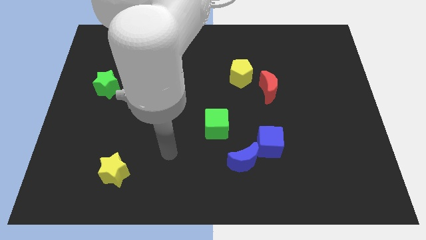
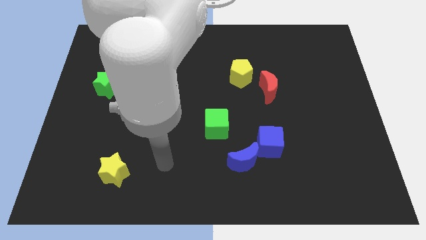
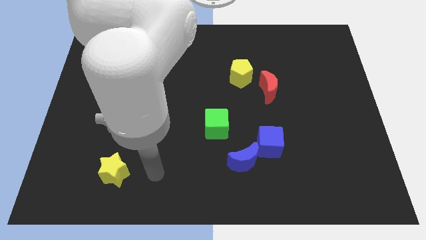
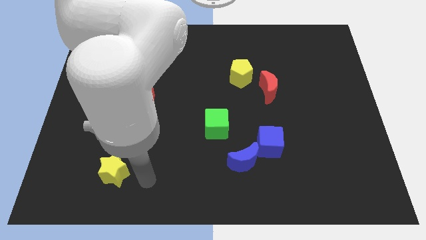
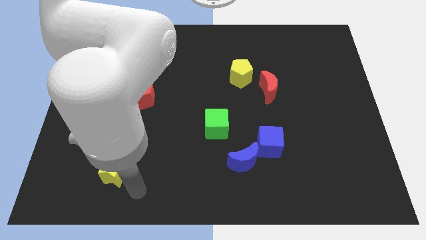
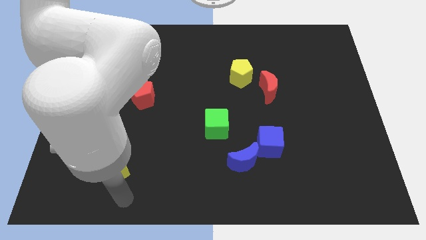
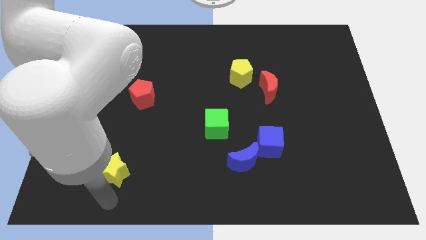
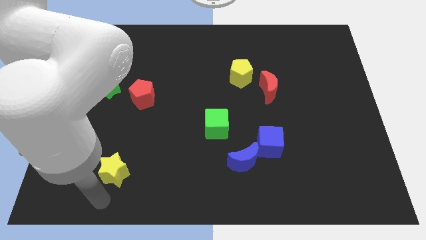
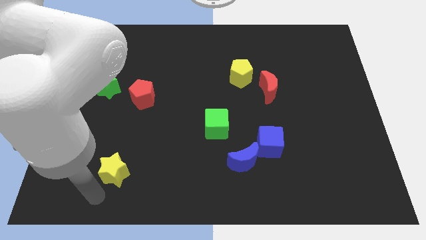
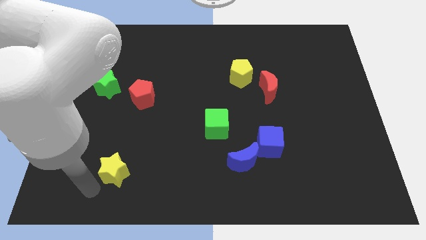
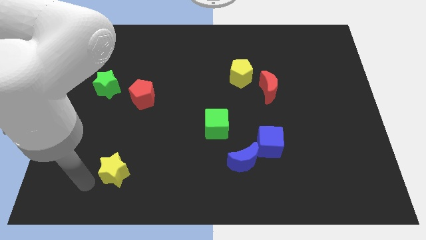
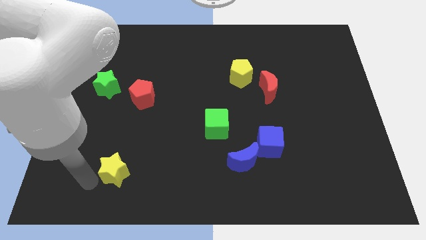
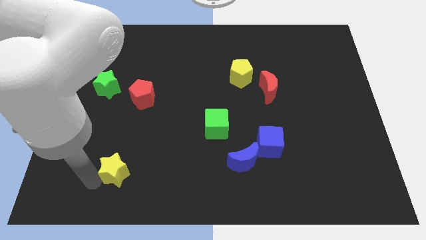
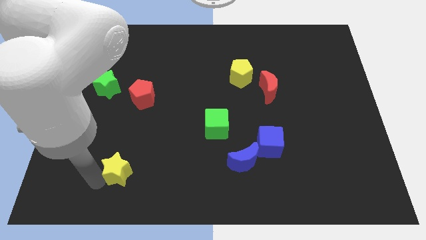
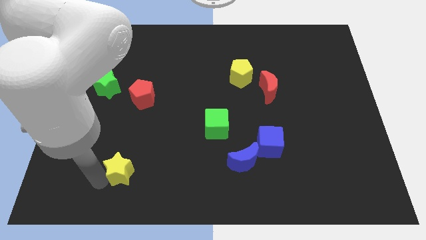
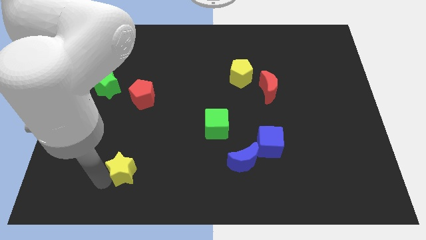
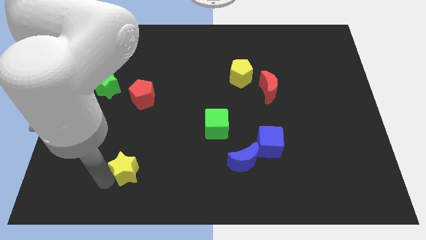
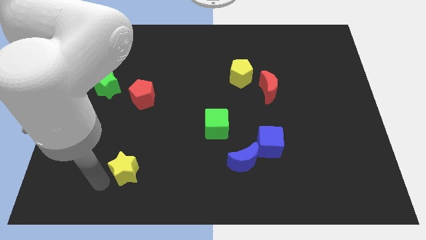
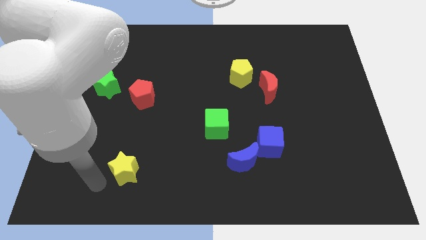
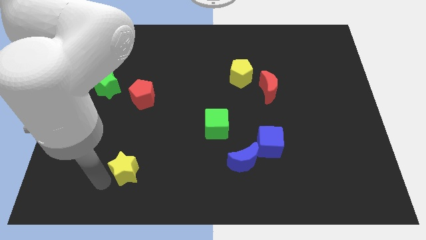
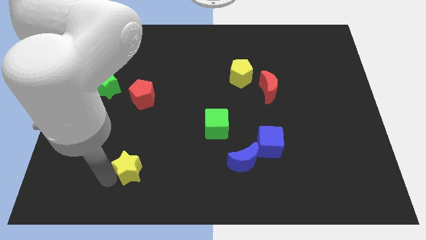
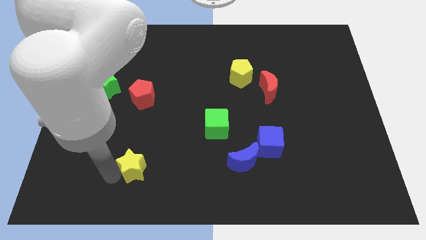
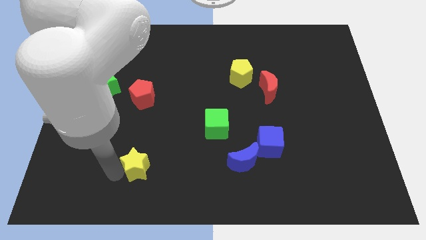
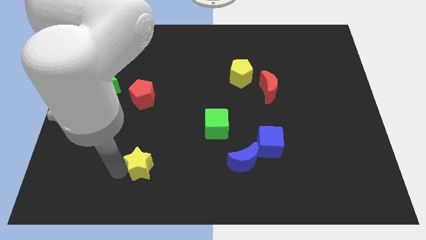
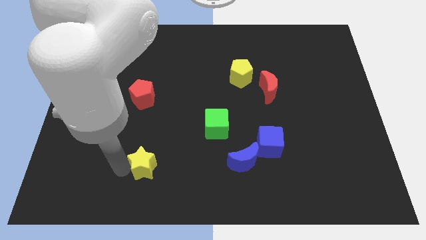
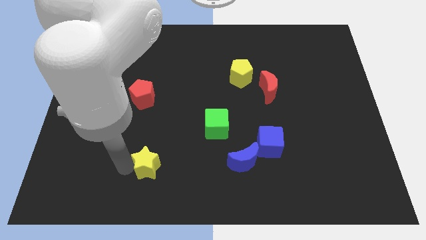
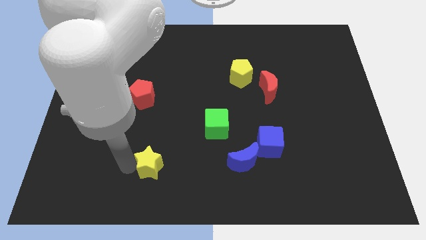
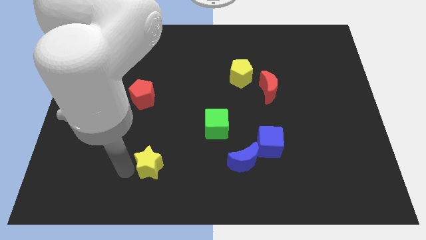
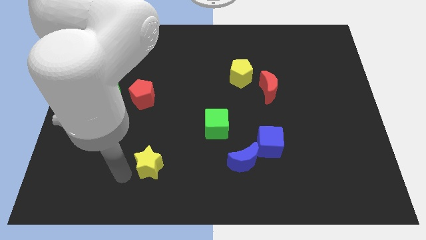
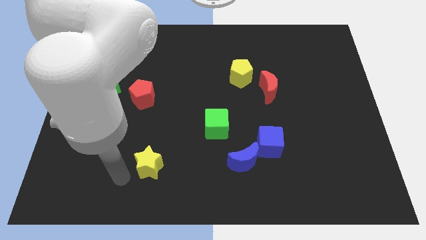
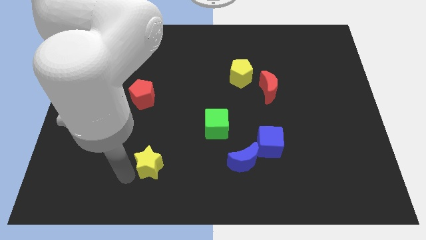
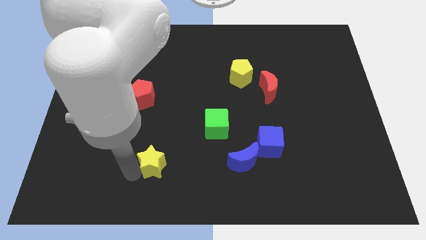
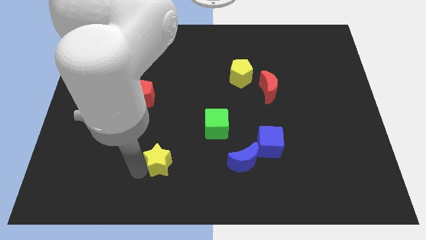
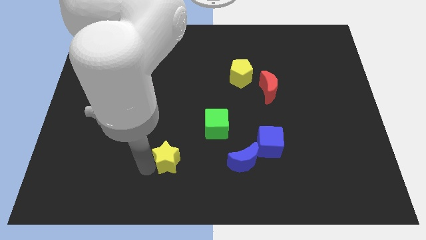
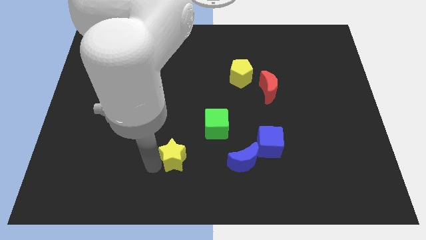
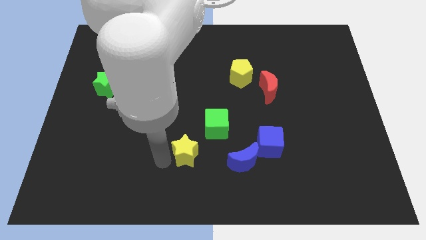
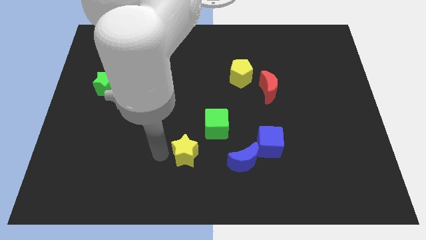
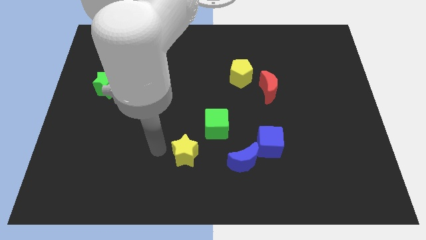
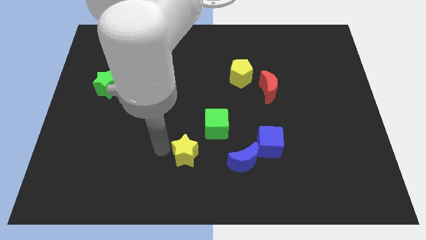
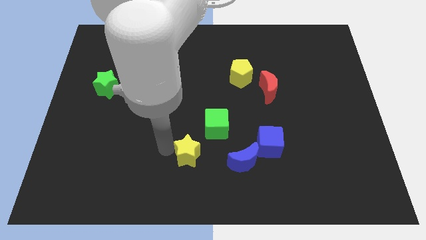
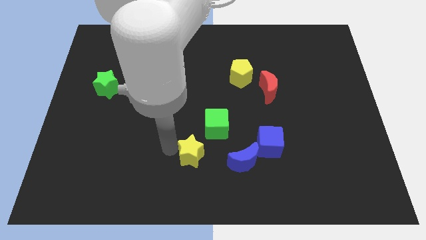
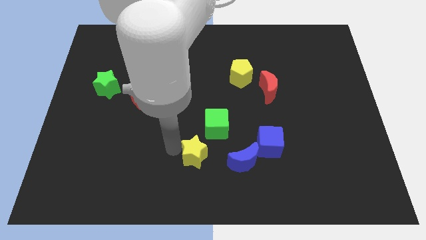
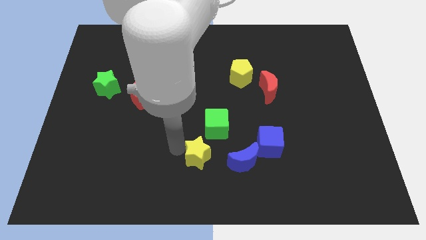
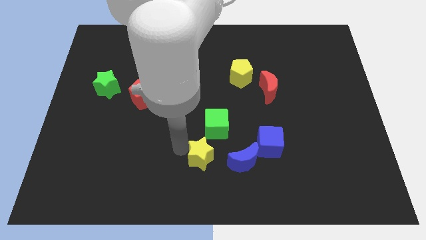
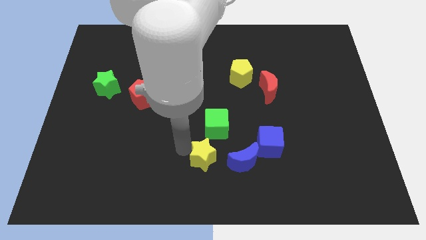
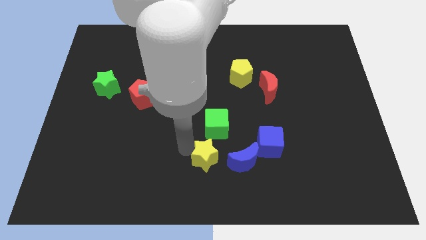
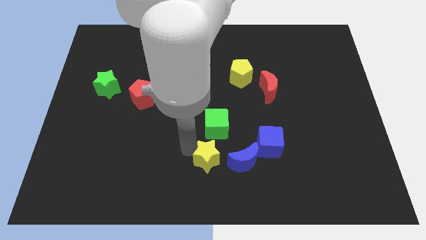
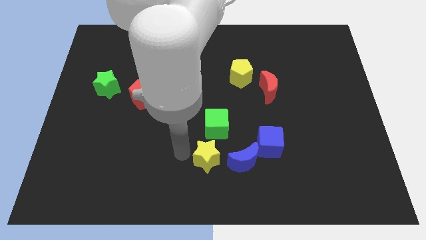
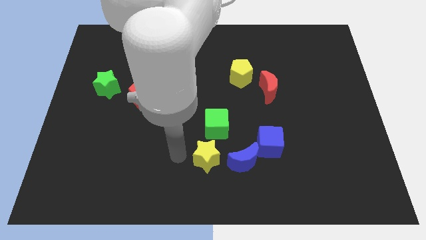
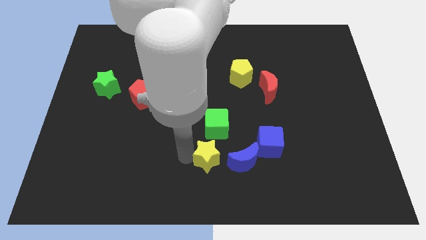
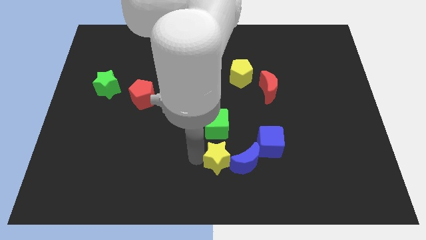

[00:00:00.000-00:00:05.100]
slide the yellow star to the blue moon

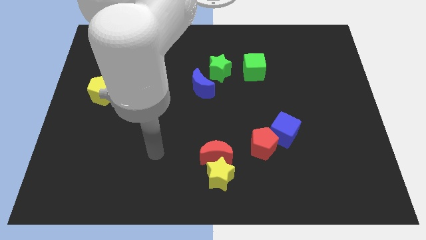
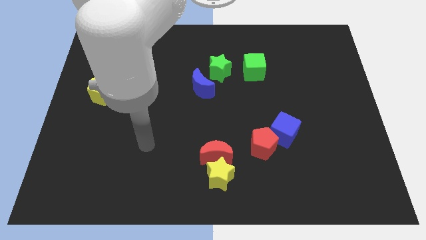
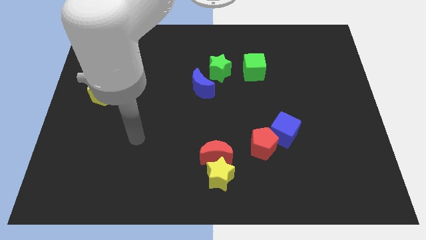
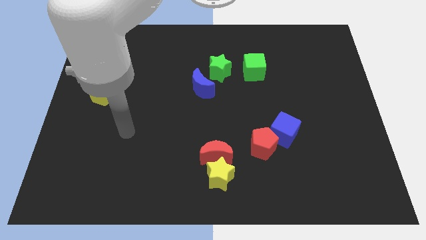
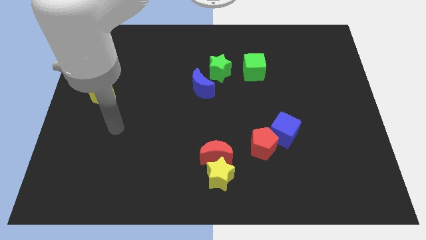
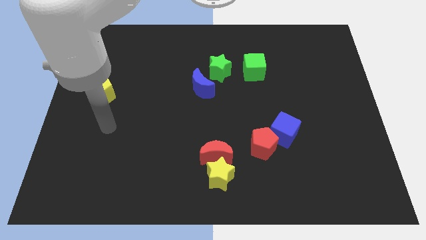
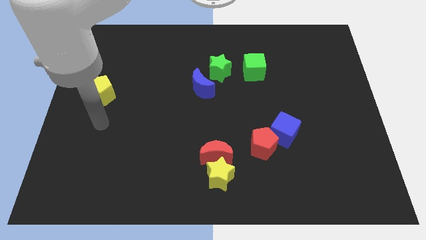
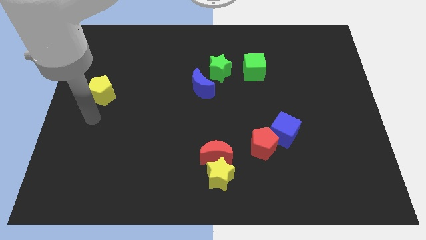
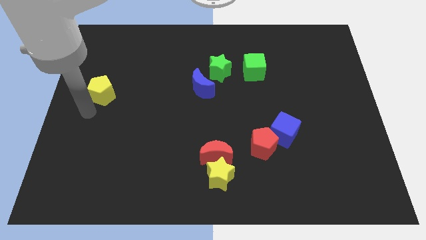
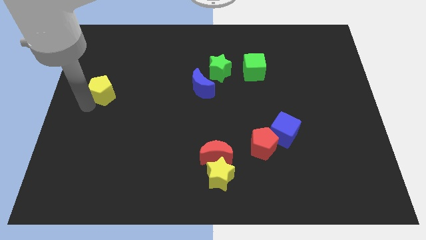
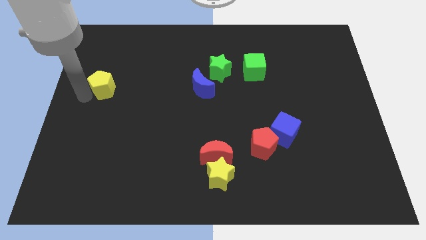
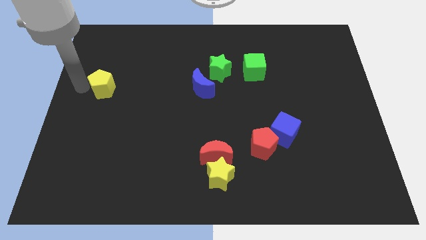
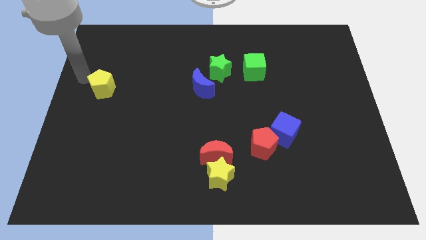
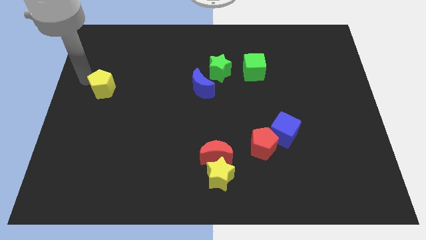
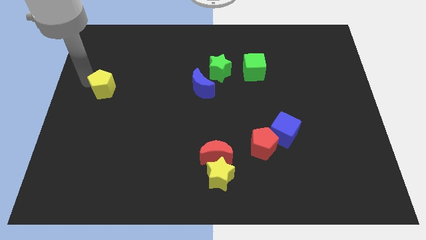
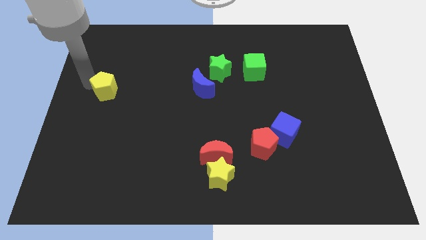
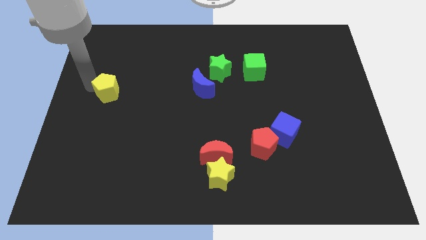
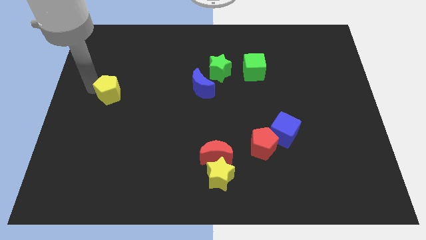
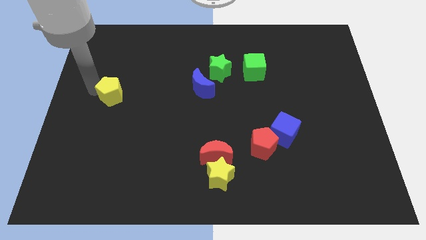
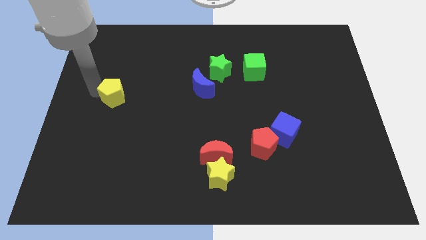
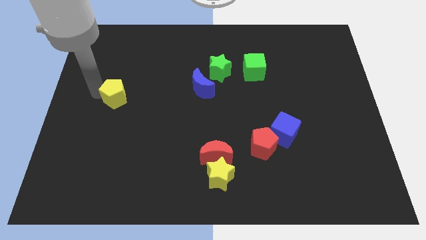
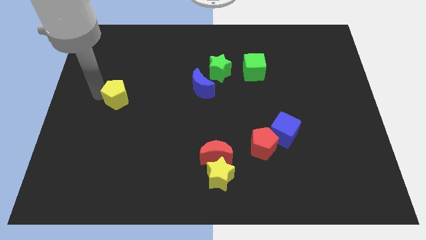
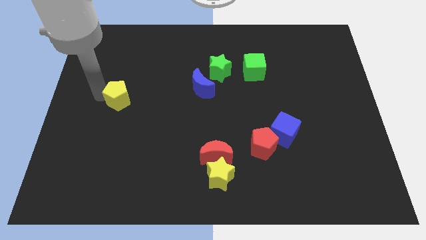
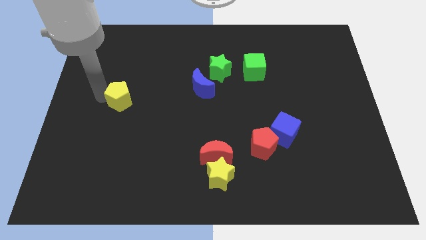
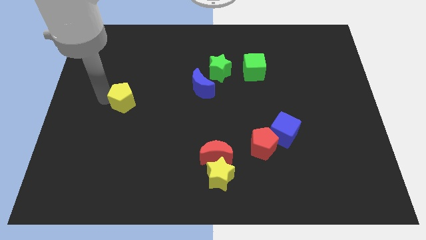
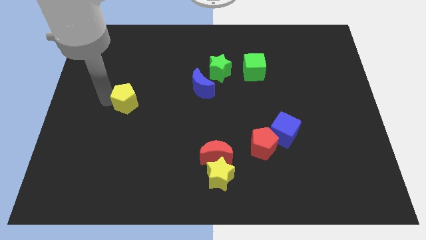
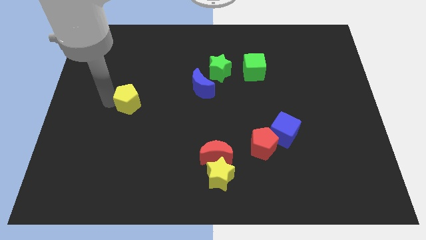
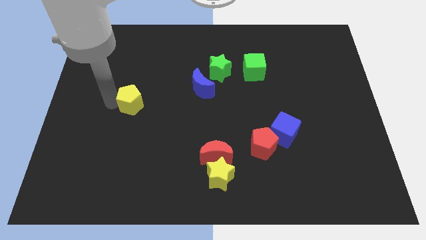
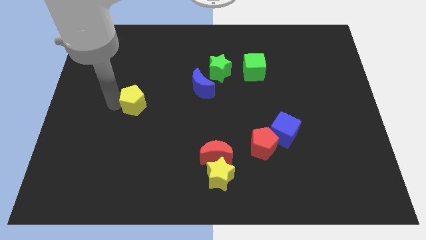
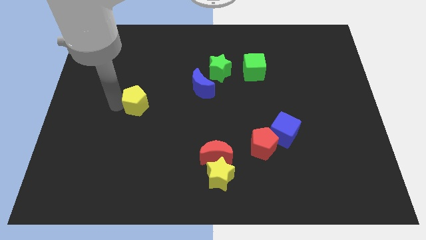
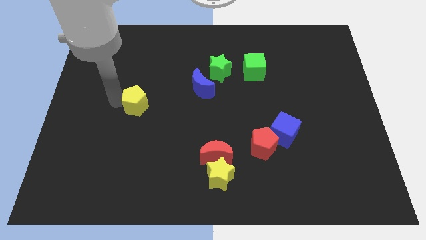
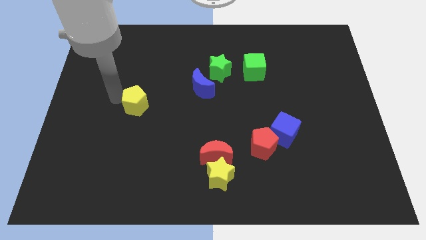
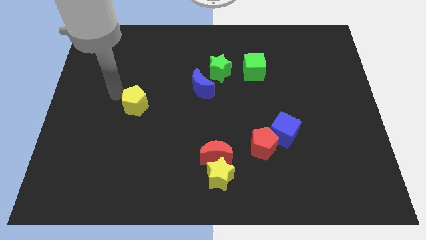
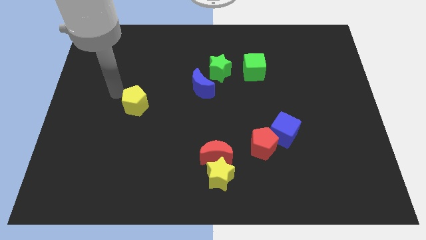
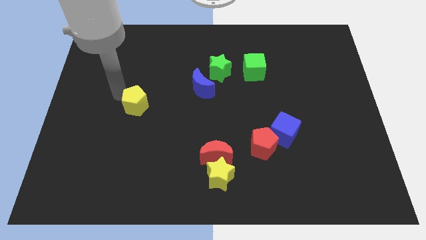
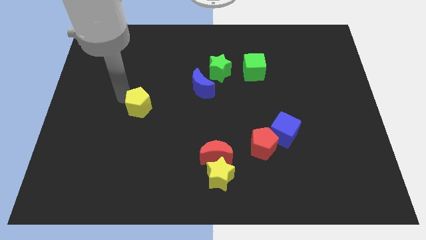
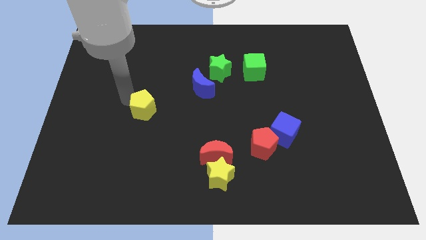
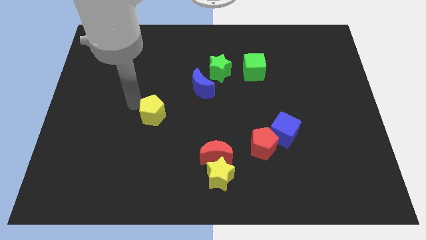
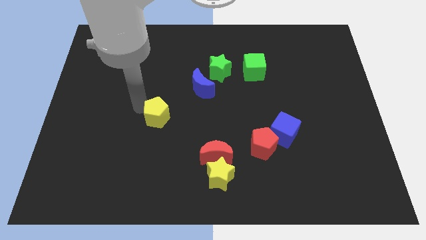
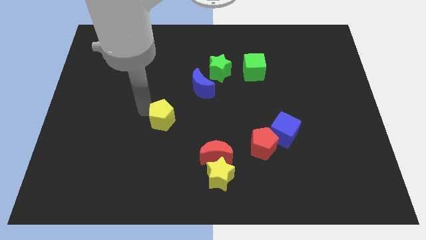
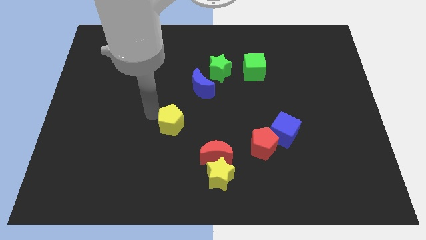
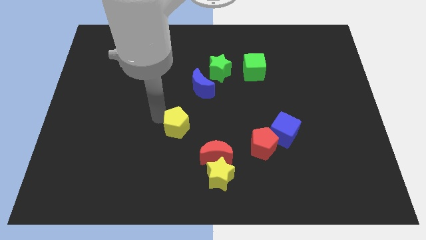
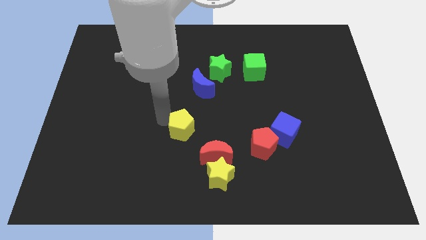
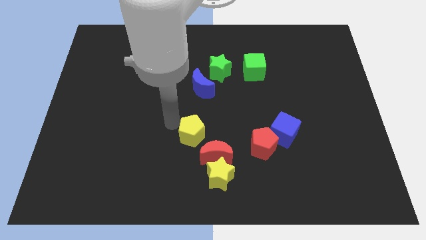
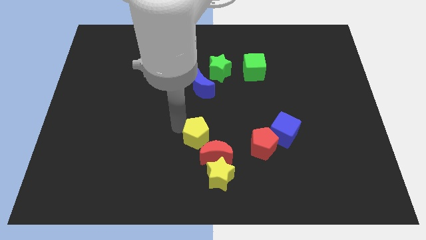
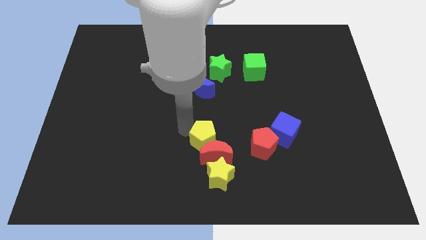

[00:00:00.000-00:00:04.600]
push the yellow pentagon to the red moon
